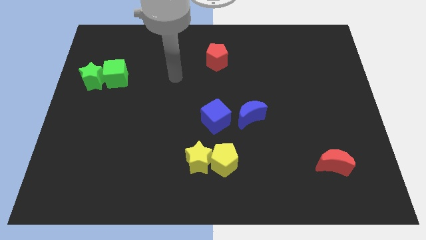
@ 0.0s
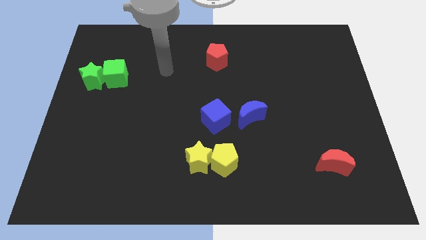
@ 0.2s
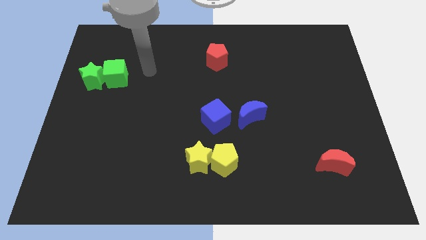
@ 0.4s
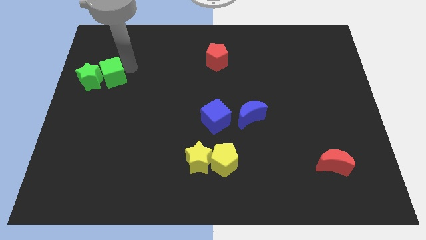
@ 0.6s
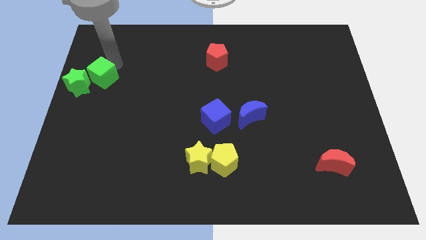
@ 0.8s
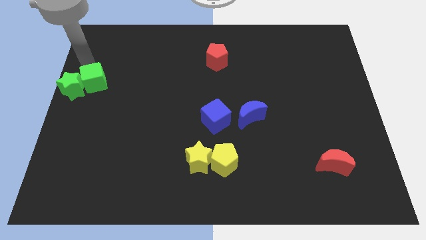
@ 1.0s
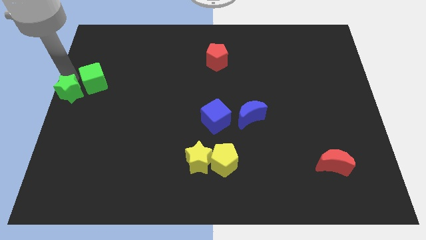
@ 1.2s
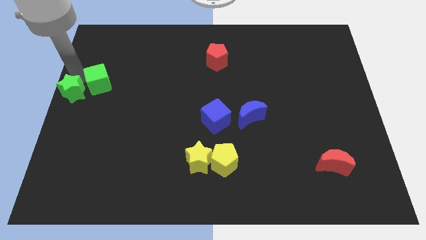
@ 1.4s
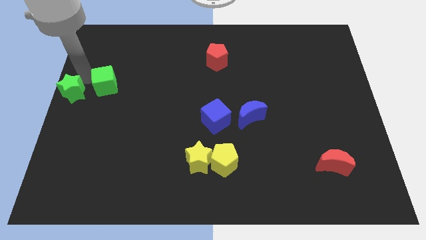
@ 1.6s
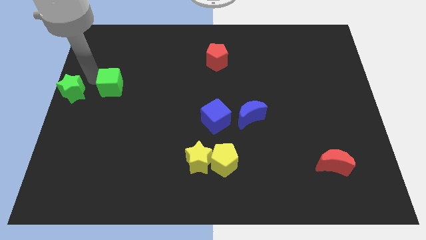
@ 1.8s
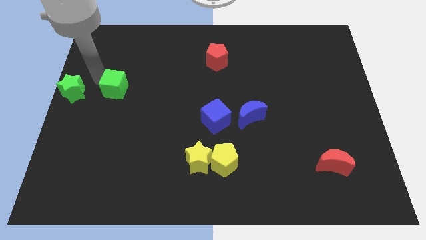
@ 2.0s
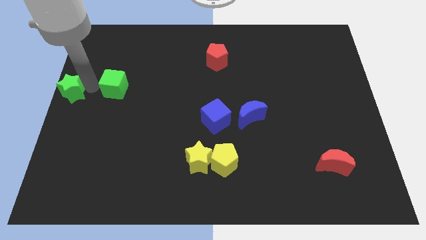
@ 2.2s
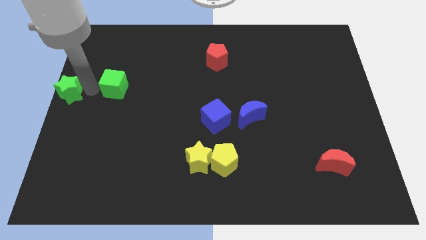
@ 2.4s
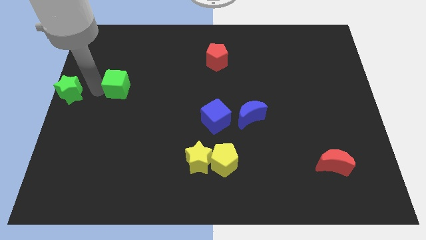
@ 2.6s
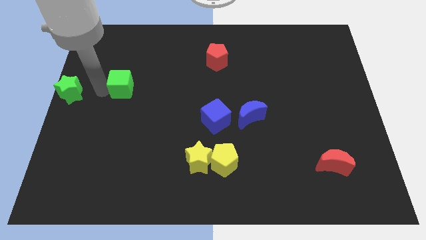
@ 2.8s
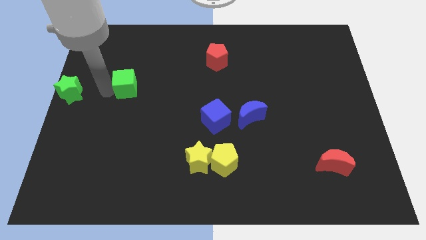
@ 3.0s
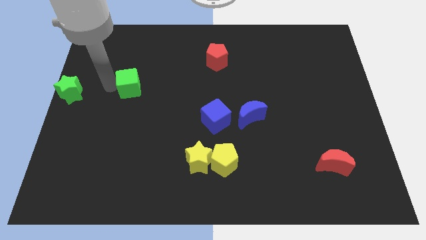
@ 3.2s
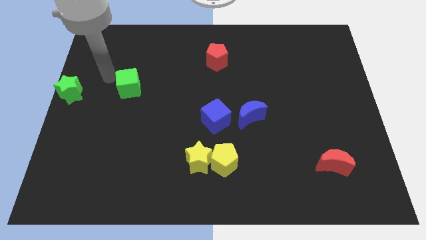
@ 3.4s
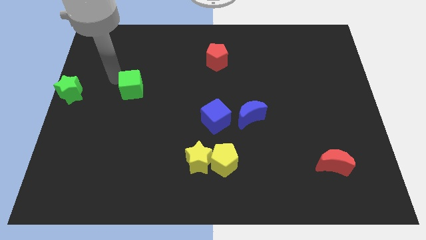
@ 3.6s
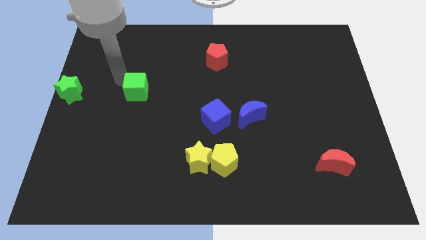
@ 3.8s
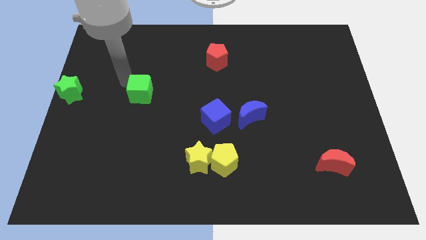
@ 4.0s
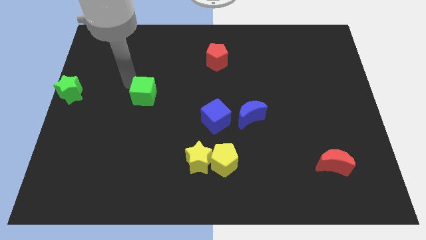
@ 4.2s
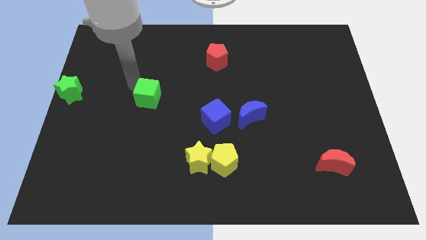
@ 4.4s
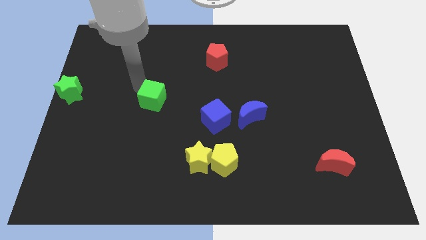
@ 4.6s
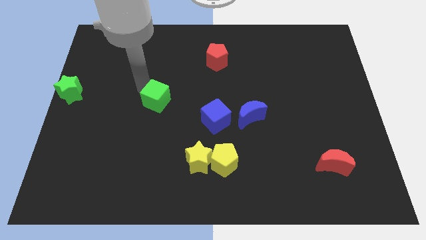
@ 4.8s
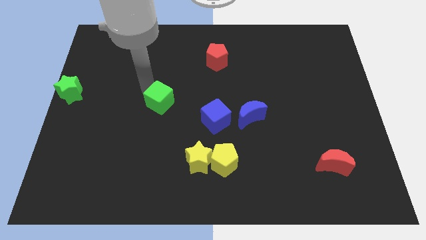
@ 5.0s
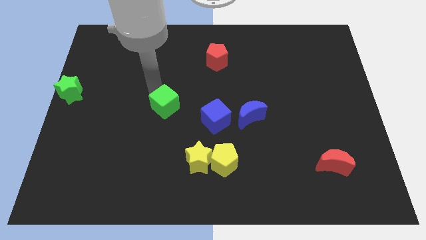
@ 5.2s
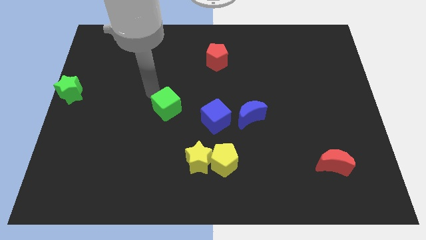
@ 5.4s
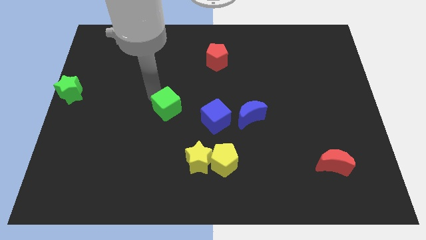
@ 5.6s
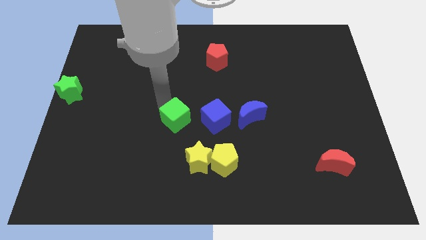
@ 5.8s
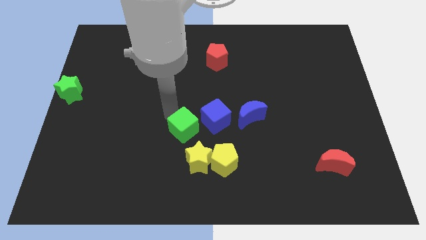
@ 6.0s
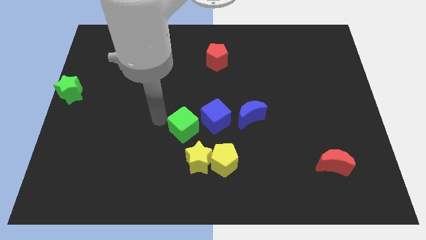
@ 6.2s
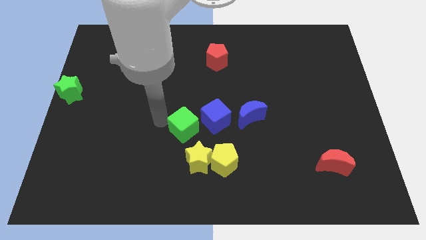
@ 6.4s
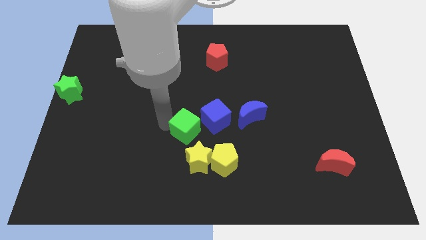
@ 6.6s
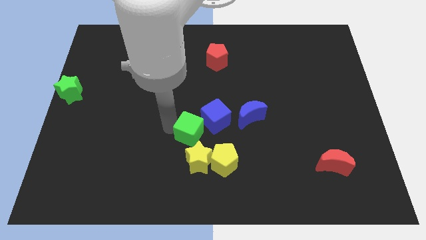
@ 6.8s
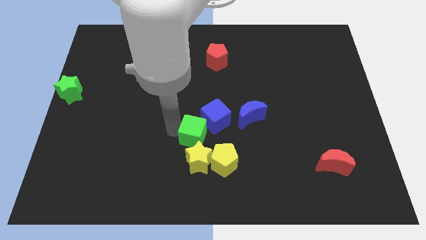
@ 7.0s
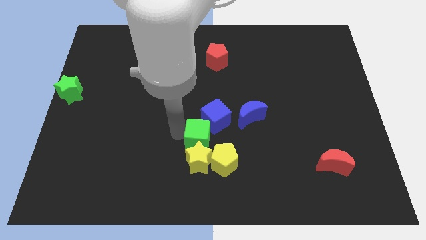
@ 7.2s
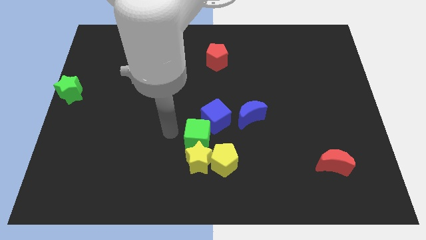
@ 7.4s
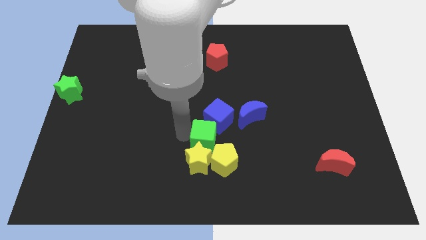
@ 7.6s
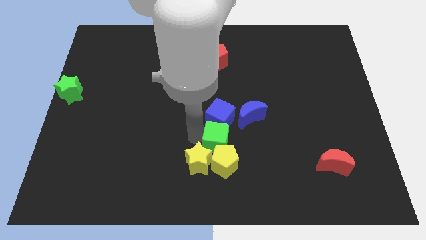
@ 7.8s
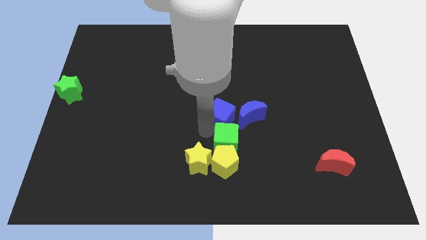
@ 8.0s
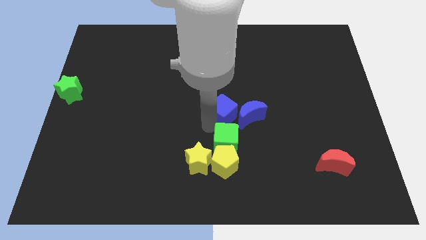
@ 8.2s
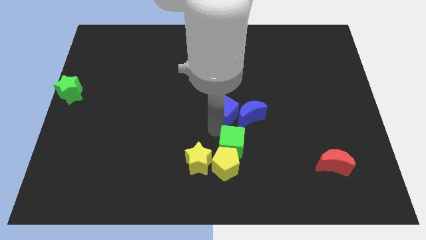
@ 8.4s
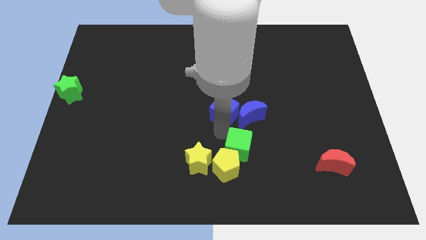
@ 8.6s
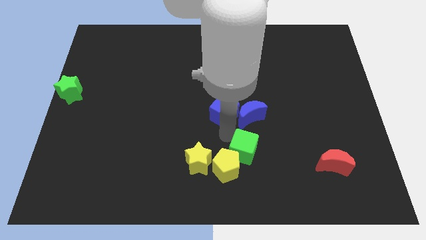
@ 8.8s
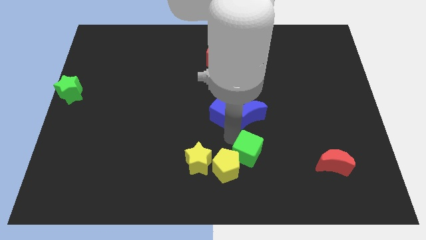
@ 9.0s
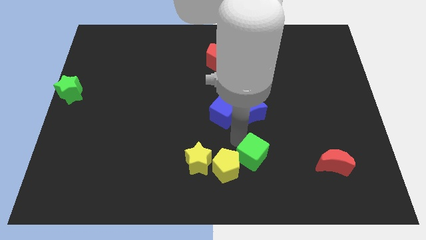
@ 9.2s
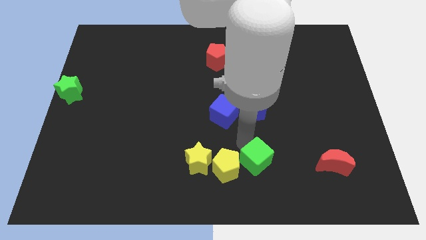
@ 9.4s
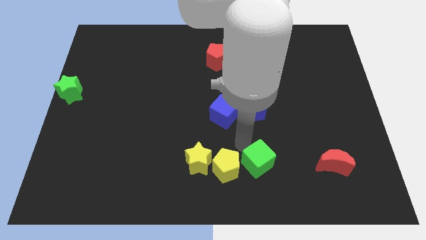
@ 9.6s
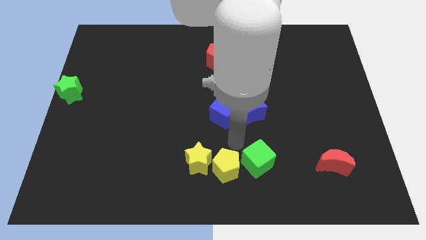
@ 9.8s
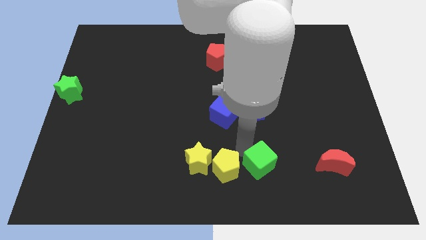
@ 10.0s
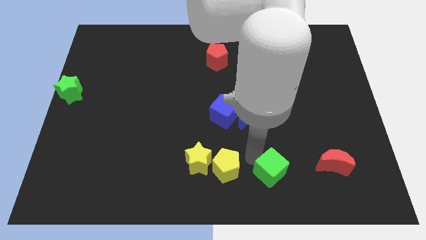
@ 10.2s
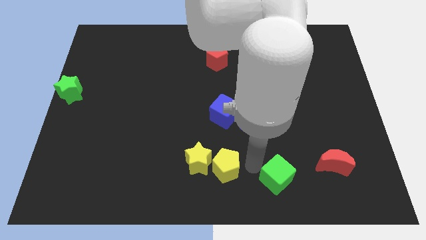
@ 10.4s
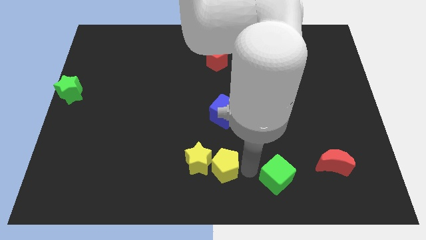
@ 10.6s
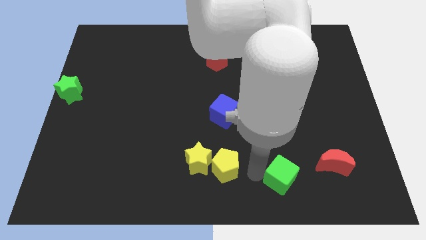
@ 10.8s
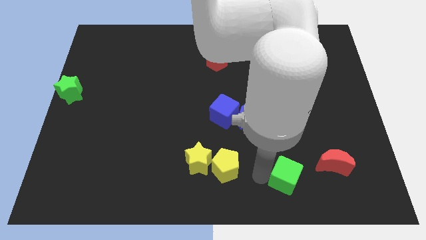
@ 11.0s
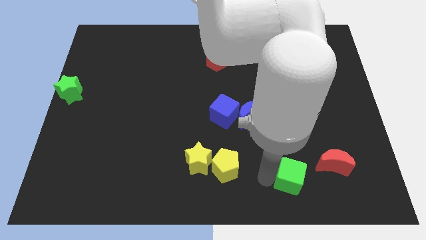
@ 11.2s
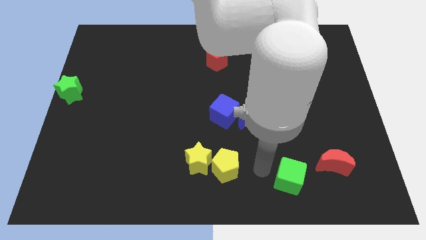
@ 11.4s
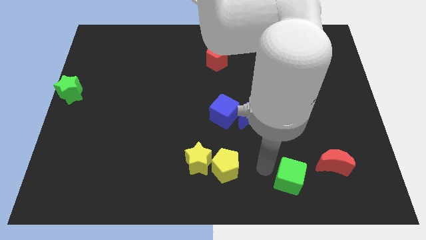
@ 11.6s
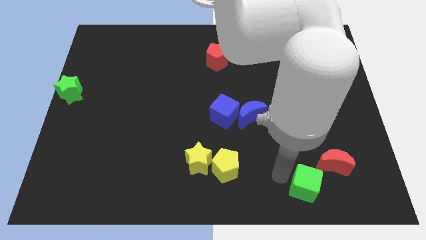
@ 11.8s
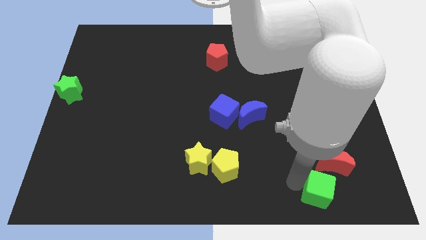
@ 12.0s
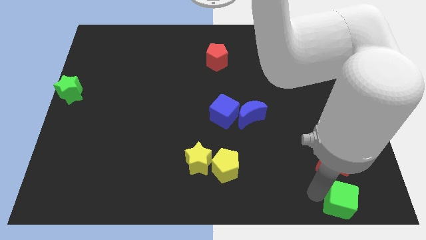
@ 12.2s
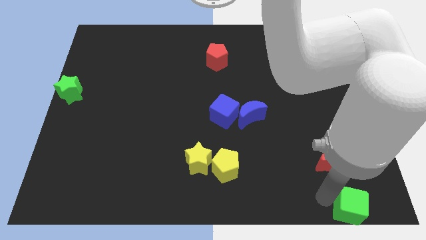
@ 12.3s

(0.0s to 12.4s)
move the green cube to the bottom right of the board

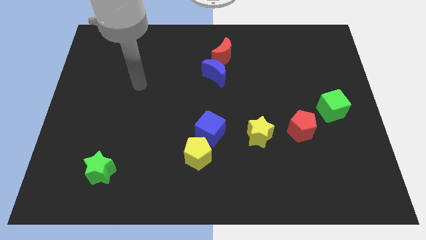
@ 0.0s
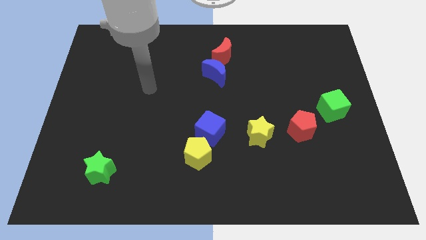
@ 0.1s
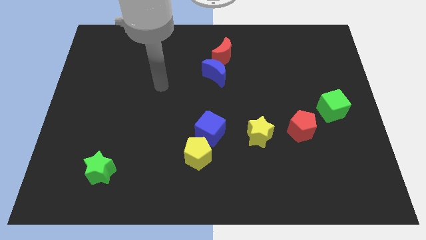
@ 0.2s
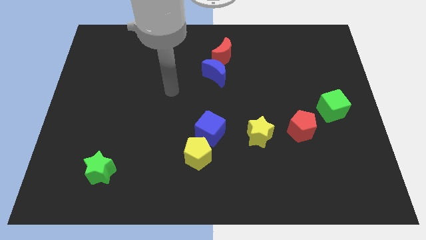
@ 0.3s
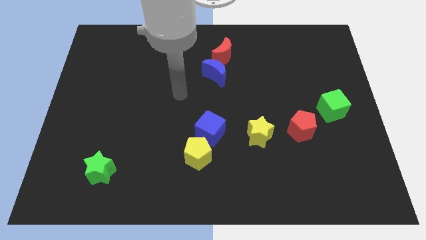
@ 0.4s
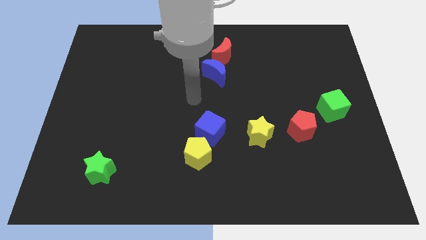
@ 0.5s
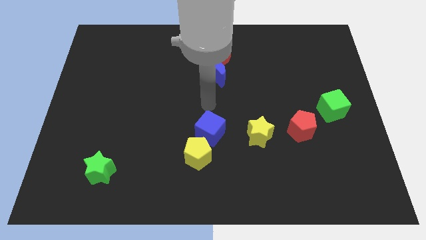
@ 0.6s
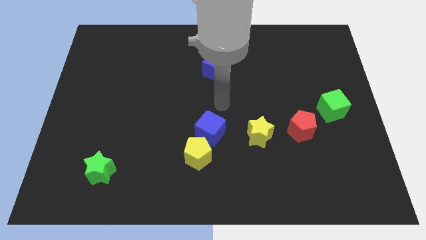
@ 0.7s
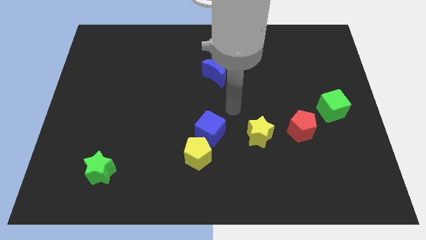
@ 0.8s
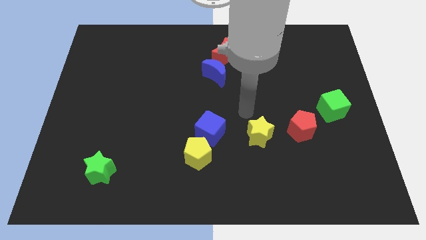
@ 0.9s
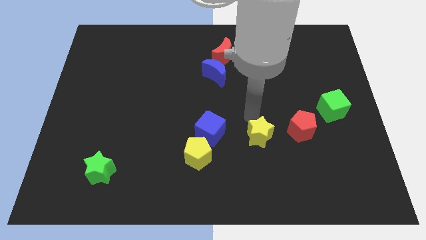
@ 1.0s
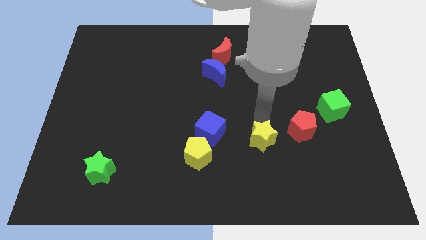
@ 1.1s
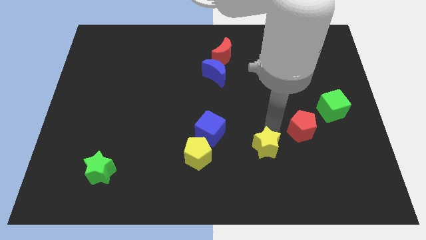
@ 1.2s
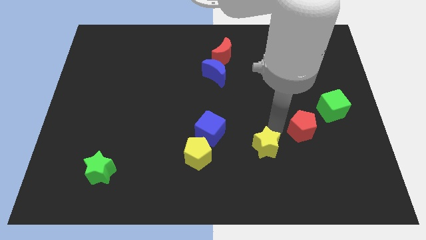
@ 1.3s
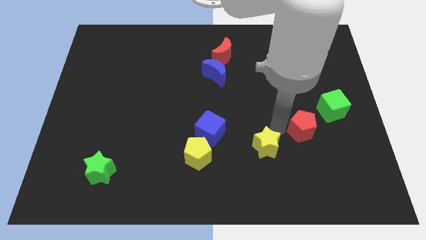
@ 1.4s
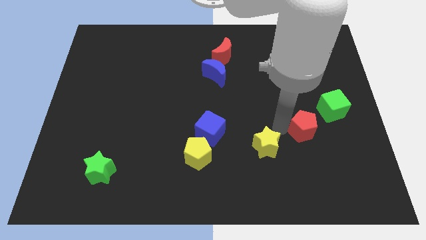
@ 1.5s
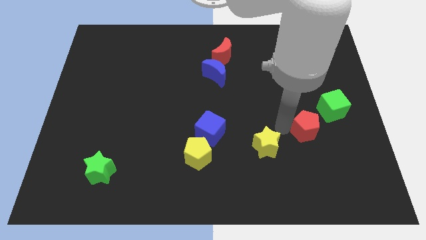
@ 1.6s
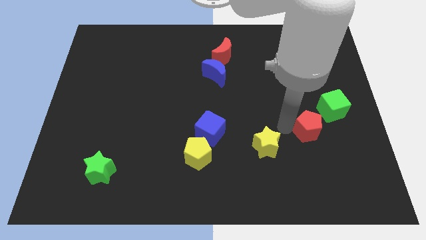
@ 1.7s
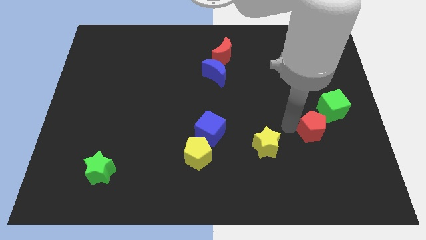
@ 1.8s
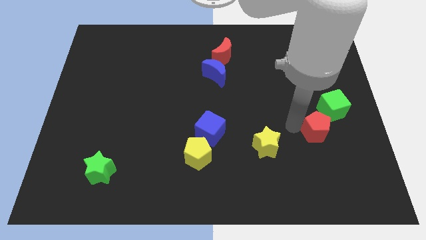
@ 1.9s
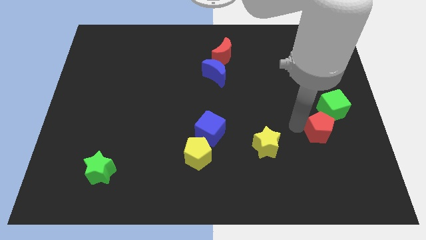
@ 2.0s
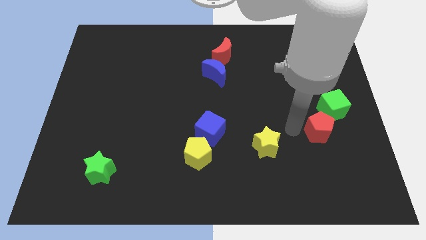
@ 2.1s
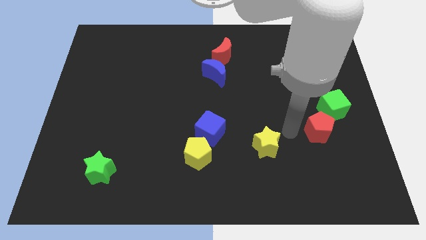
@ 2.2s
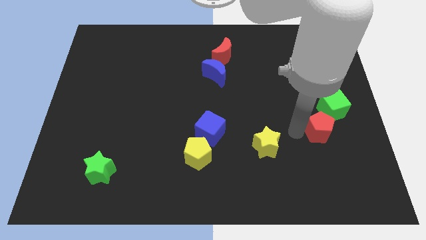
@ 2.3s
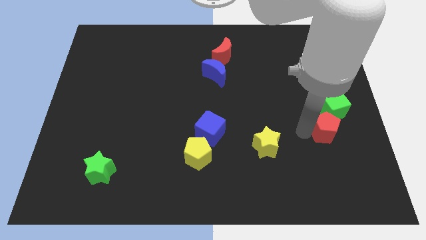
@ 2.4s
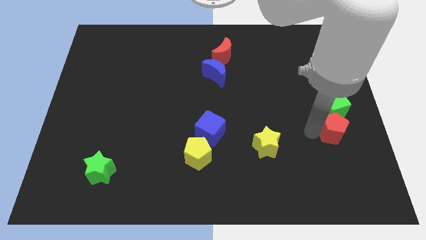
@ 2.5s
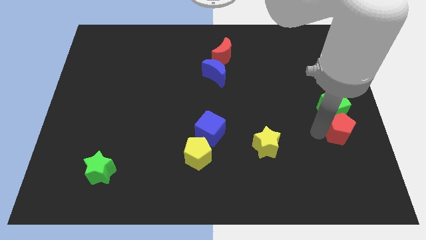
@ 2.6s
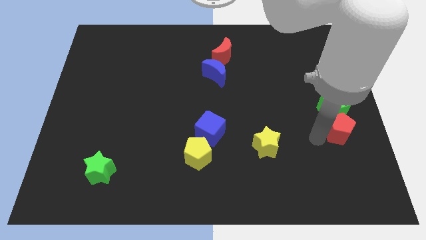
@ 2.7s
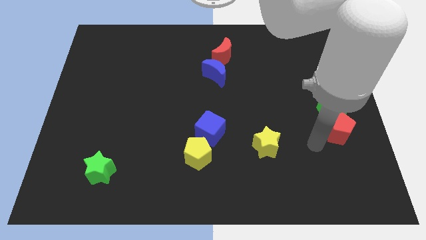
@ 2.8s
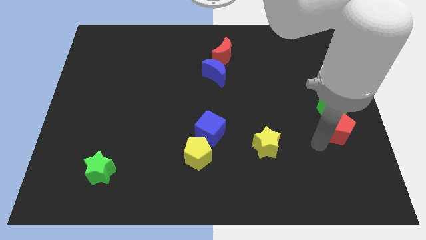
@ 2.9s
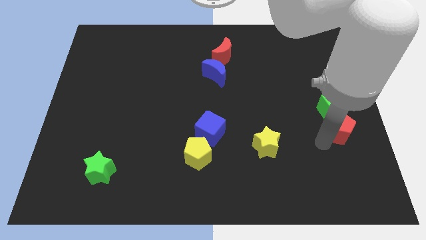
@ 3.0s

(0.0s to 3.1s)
slide the red pentagon to the center right
